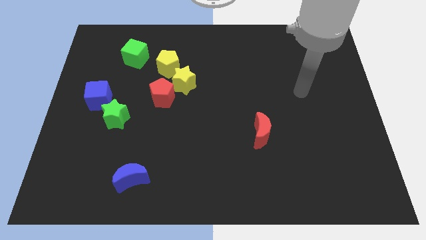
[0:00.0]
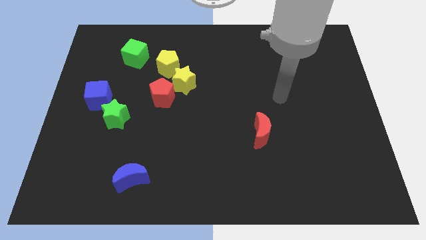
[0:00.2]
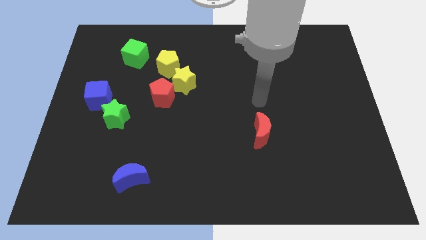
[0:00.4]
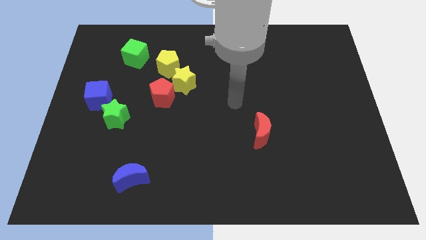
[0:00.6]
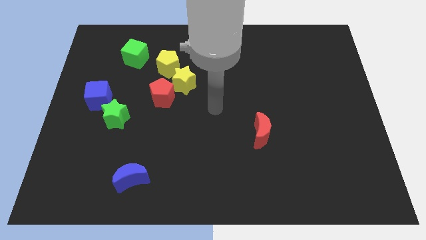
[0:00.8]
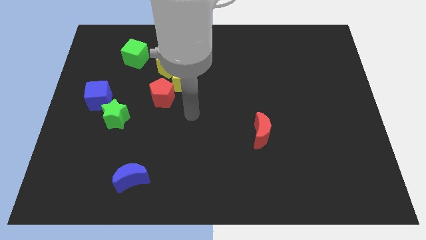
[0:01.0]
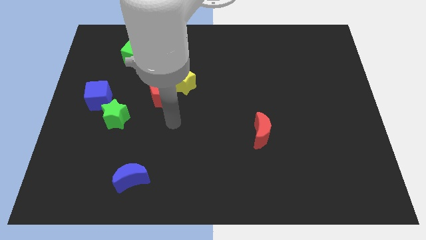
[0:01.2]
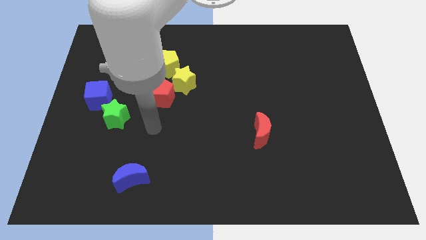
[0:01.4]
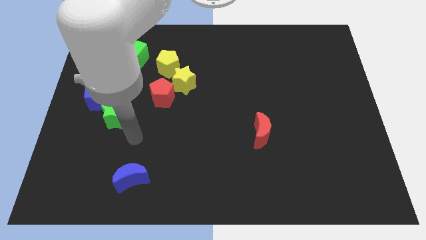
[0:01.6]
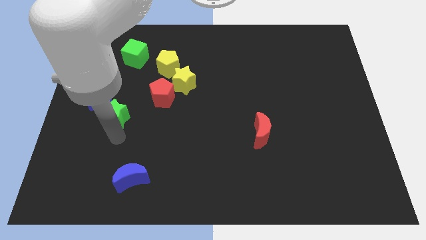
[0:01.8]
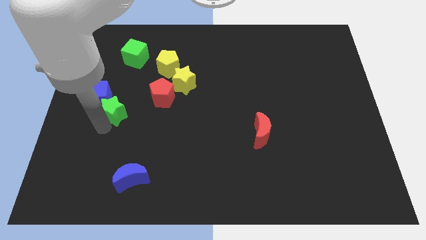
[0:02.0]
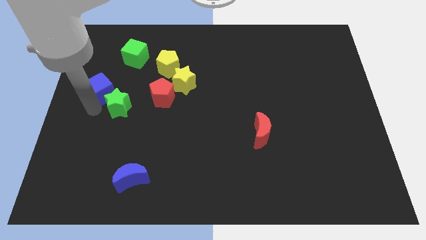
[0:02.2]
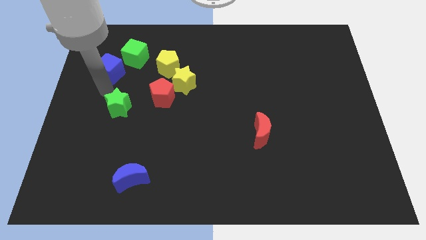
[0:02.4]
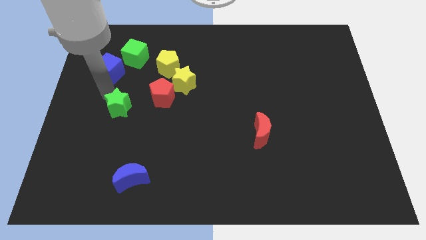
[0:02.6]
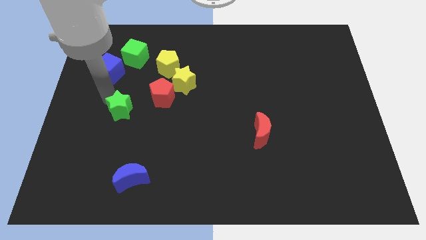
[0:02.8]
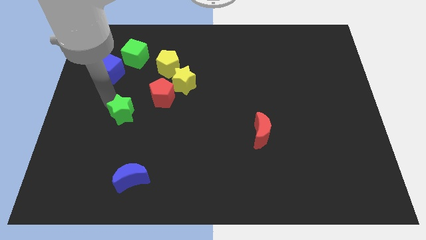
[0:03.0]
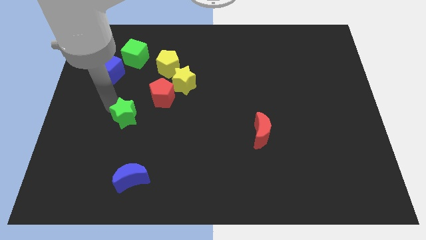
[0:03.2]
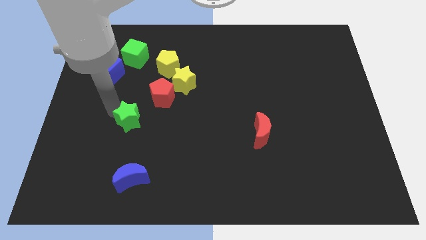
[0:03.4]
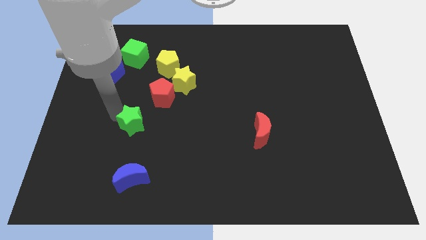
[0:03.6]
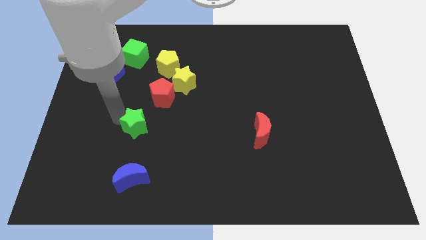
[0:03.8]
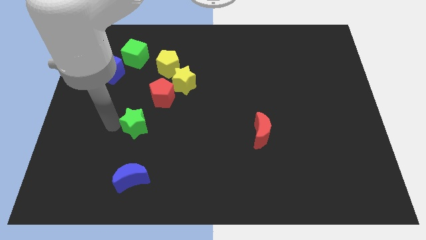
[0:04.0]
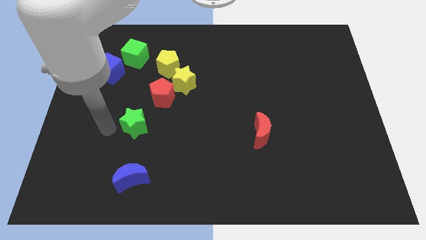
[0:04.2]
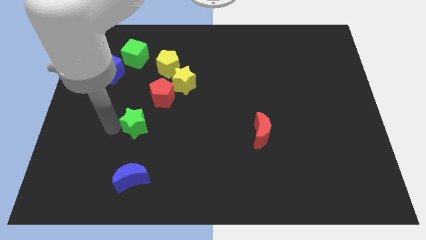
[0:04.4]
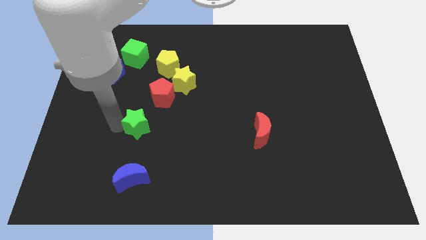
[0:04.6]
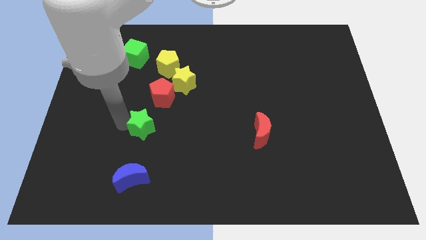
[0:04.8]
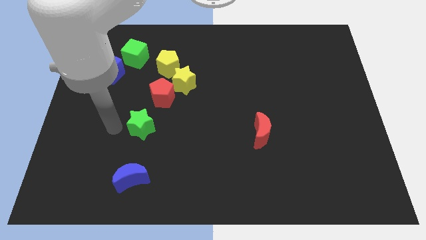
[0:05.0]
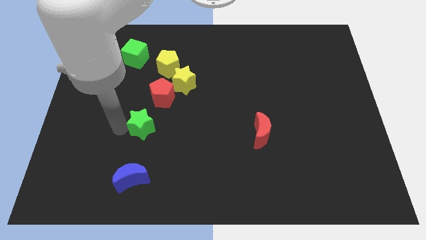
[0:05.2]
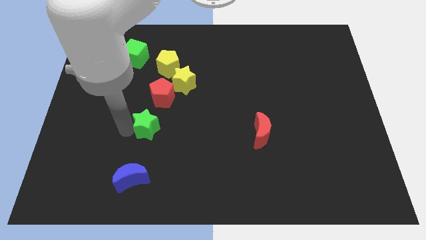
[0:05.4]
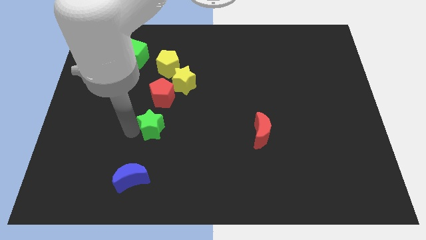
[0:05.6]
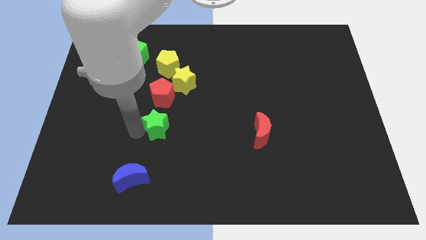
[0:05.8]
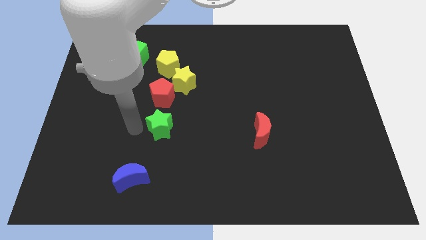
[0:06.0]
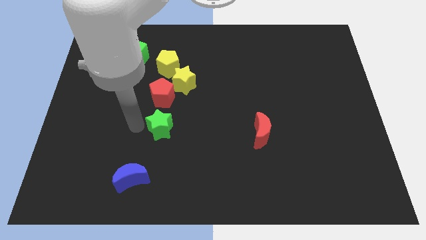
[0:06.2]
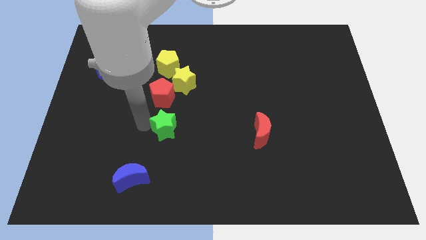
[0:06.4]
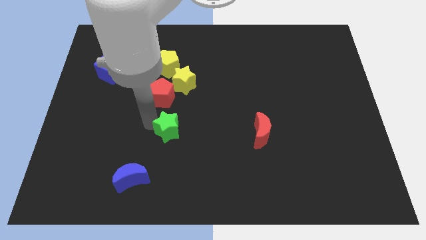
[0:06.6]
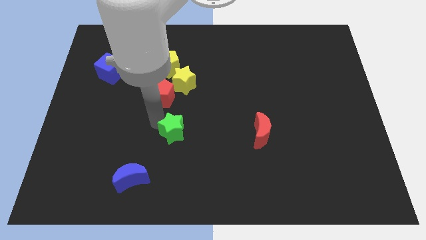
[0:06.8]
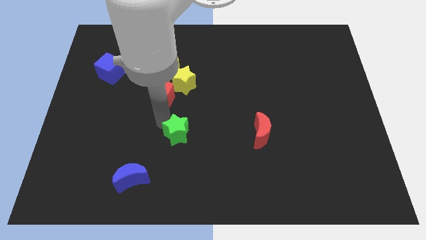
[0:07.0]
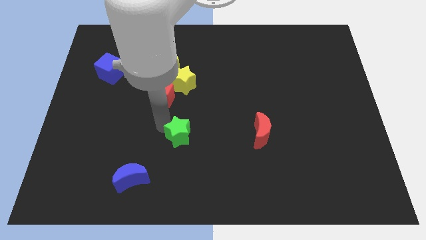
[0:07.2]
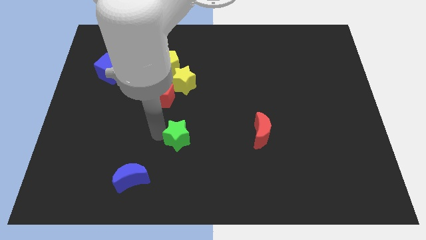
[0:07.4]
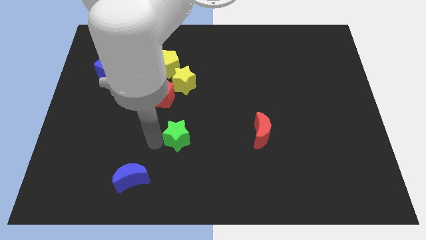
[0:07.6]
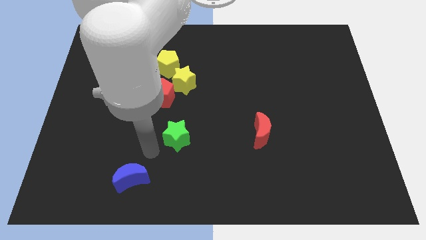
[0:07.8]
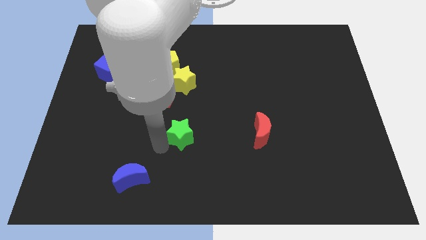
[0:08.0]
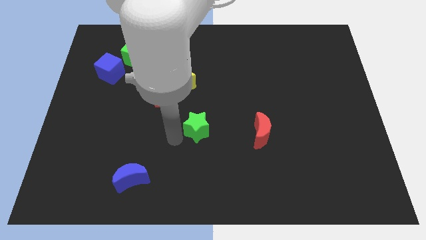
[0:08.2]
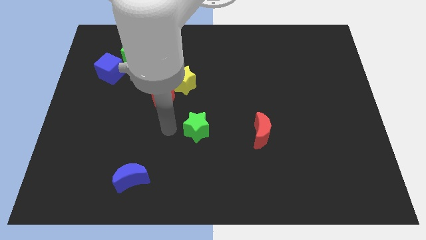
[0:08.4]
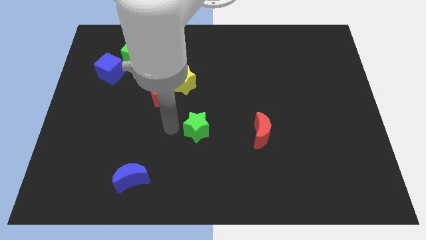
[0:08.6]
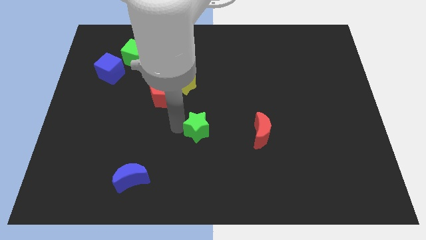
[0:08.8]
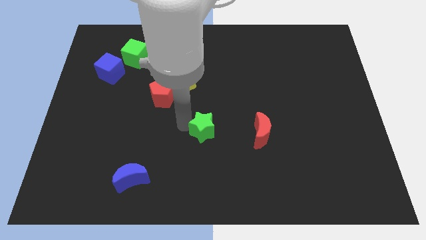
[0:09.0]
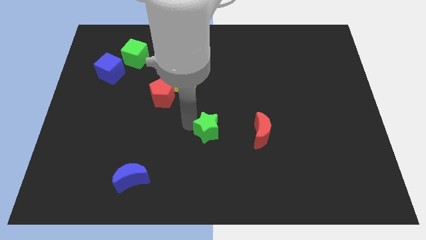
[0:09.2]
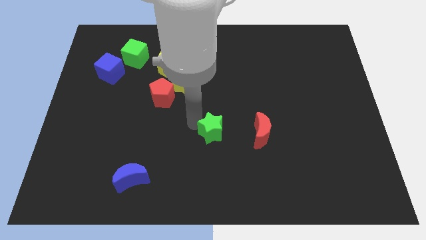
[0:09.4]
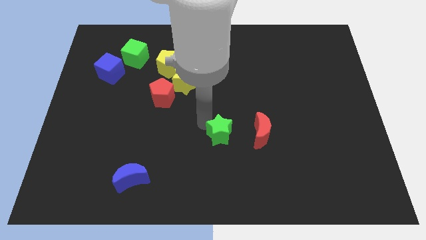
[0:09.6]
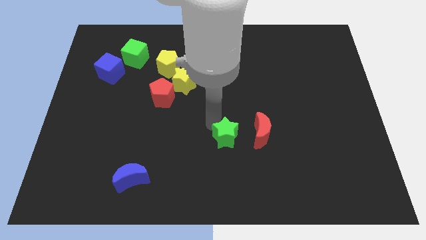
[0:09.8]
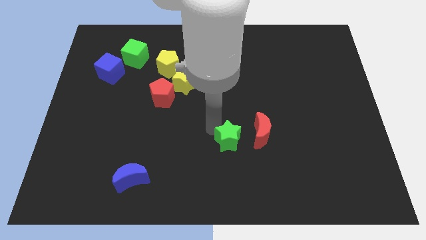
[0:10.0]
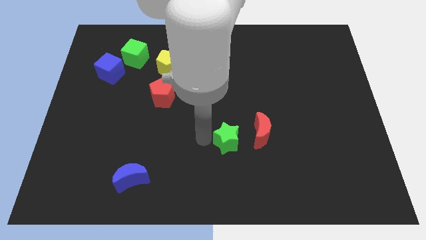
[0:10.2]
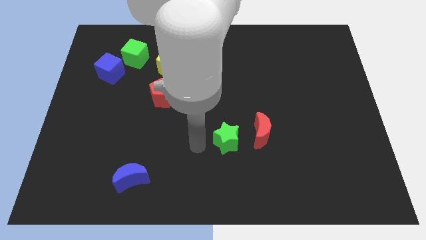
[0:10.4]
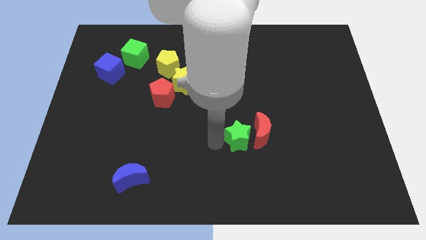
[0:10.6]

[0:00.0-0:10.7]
slide the green star close to the red moon

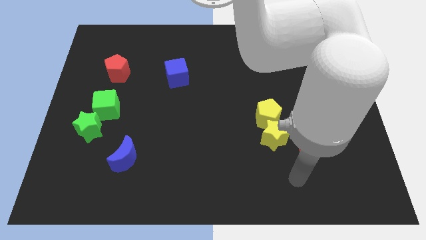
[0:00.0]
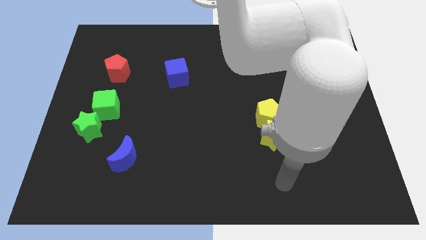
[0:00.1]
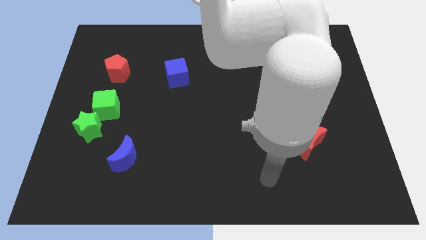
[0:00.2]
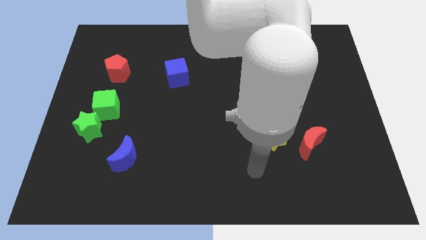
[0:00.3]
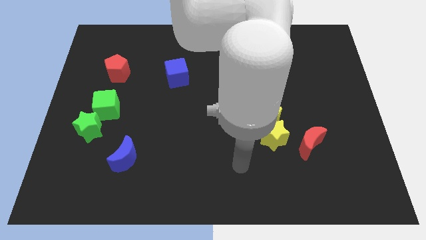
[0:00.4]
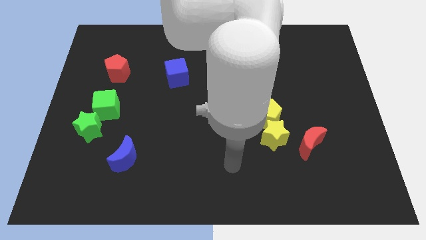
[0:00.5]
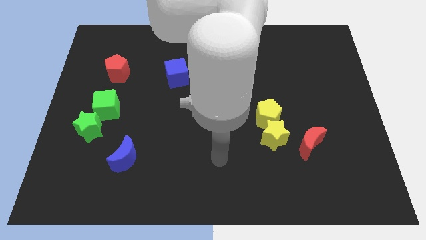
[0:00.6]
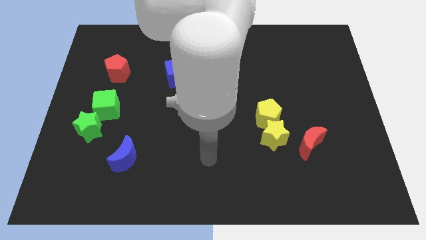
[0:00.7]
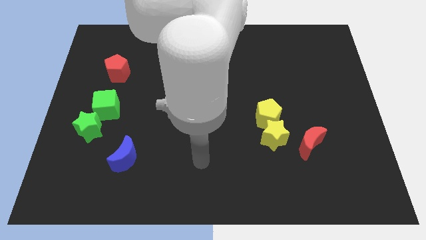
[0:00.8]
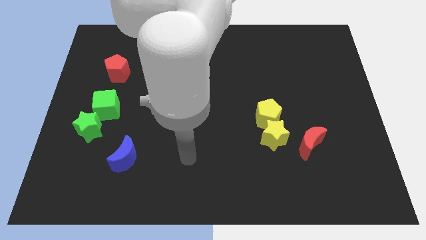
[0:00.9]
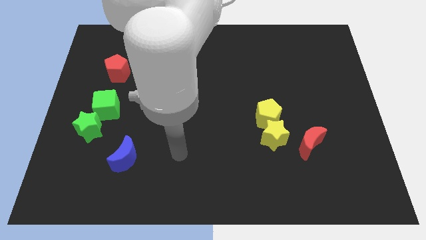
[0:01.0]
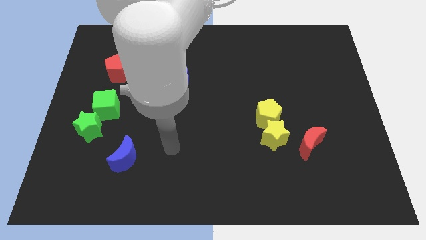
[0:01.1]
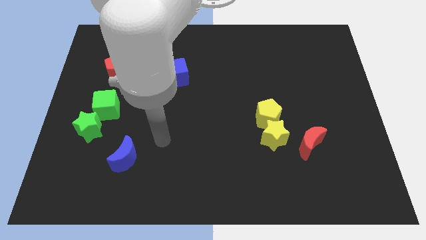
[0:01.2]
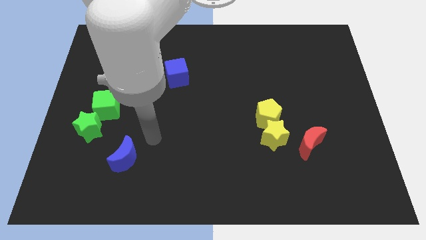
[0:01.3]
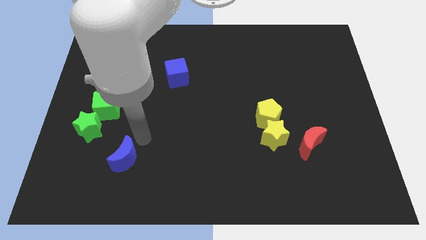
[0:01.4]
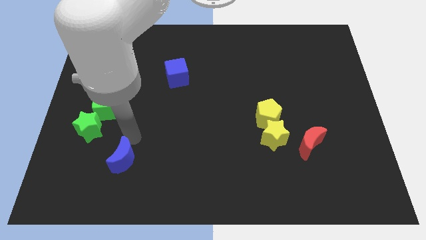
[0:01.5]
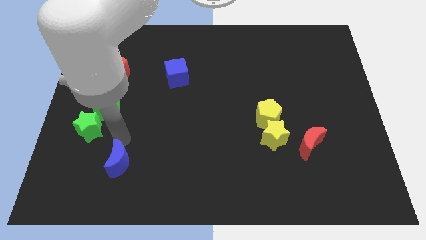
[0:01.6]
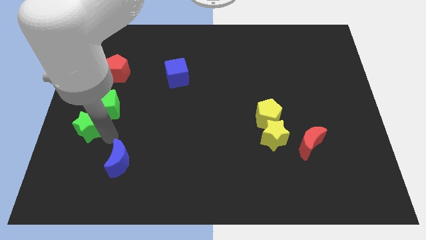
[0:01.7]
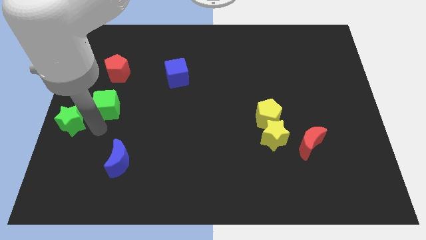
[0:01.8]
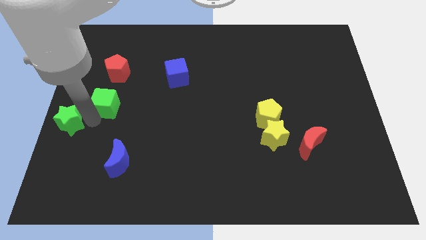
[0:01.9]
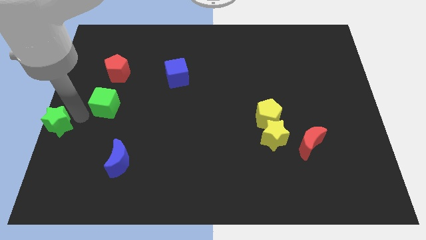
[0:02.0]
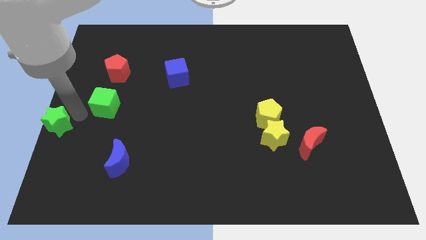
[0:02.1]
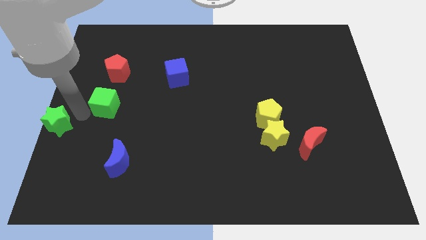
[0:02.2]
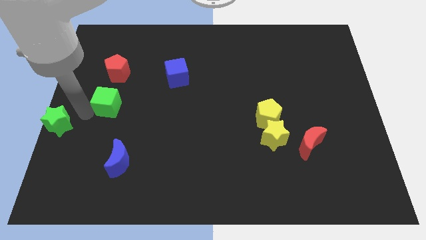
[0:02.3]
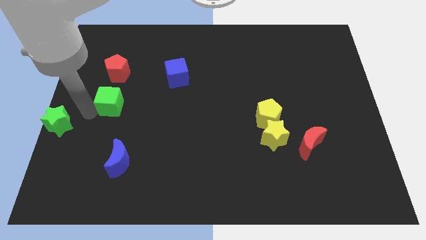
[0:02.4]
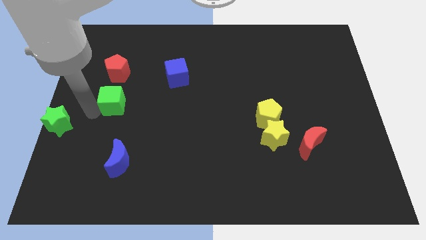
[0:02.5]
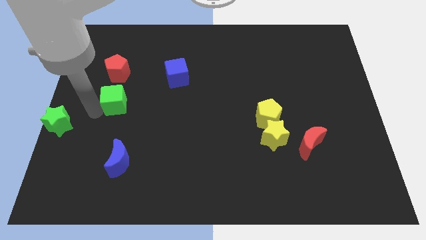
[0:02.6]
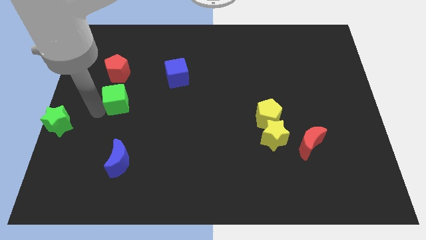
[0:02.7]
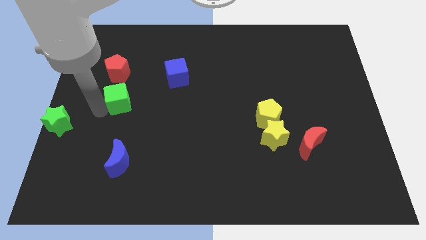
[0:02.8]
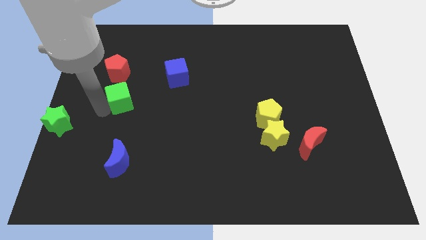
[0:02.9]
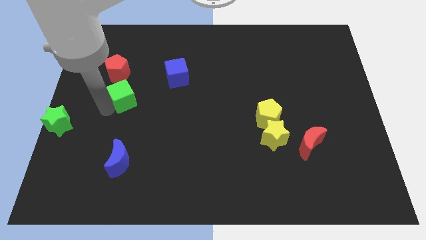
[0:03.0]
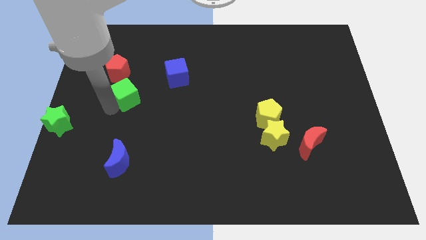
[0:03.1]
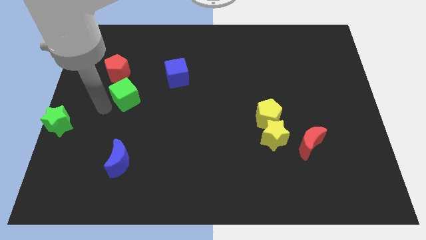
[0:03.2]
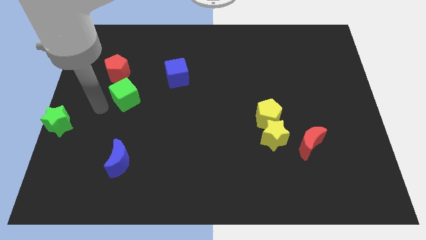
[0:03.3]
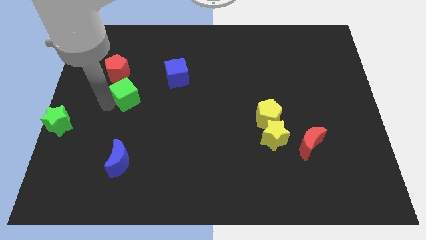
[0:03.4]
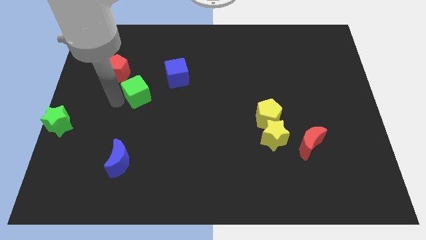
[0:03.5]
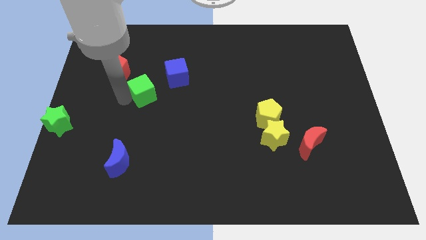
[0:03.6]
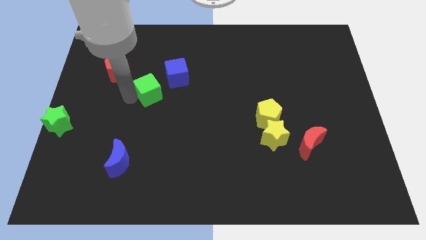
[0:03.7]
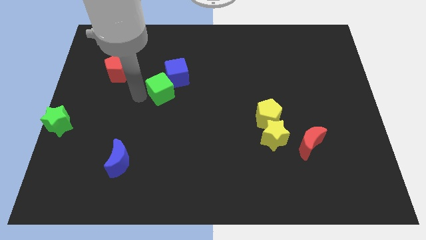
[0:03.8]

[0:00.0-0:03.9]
push the green cube to the blue cube
